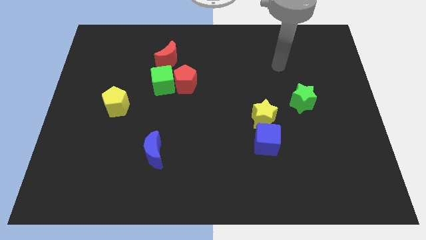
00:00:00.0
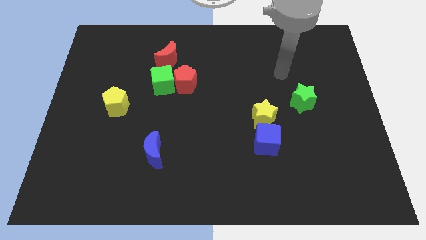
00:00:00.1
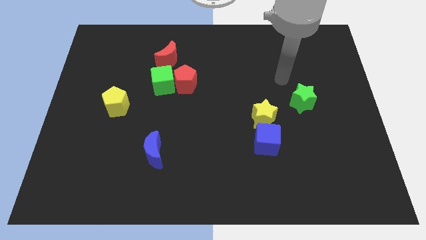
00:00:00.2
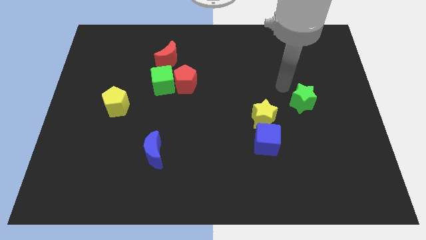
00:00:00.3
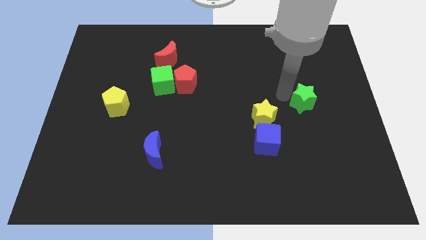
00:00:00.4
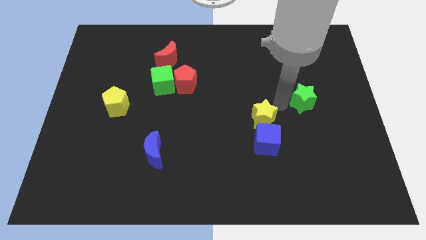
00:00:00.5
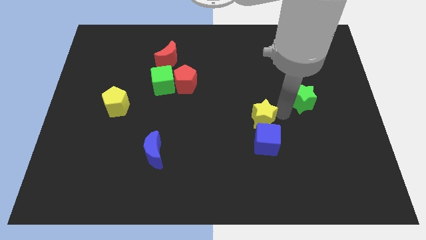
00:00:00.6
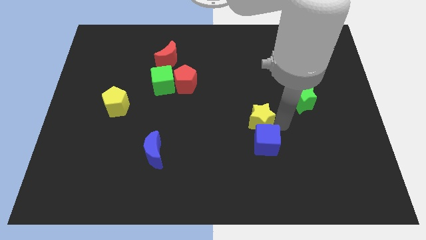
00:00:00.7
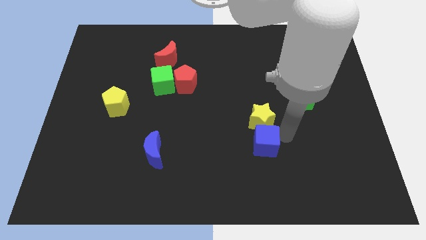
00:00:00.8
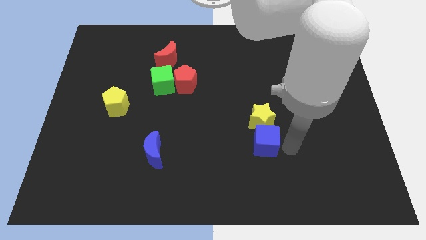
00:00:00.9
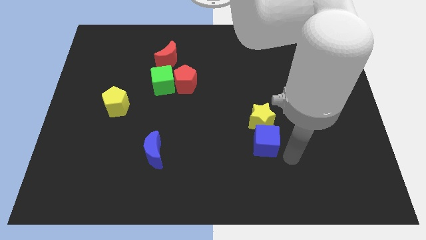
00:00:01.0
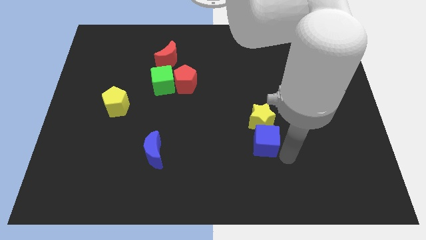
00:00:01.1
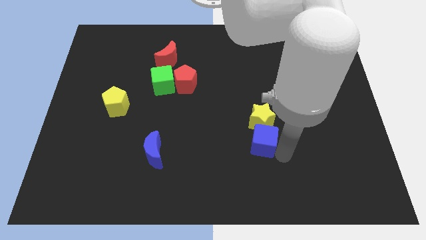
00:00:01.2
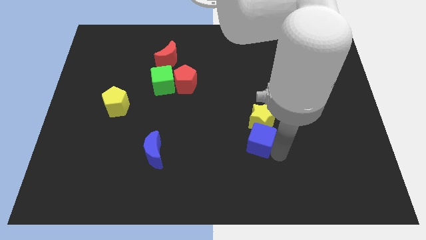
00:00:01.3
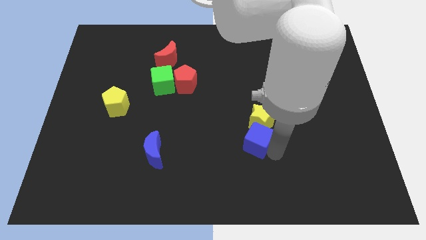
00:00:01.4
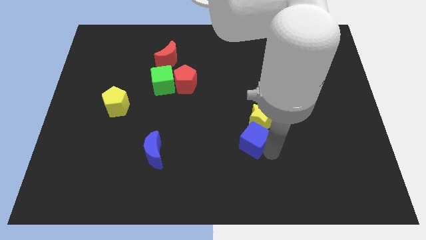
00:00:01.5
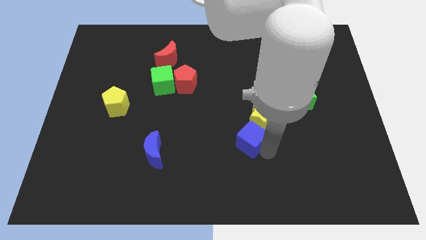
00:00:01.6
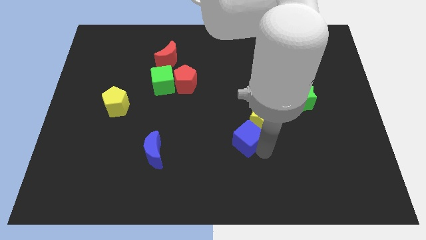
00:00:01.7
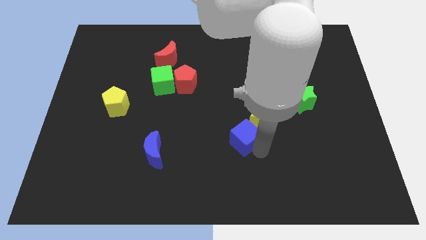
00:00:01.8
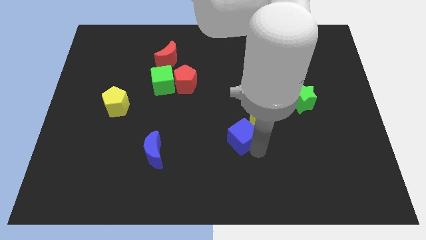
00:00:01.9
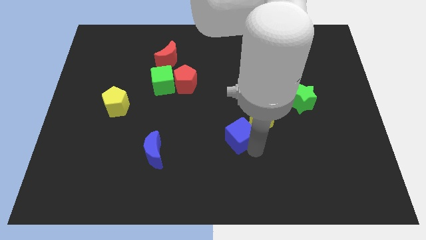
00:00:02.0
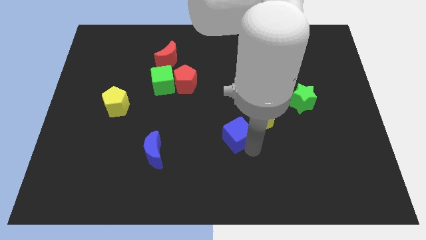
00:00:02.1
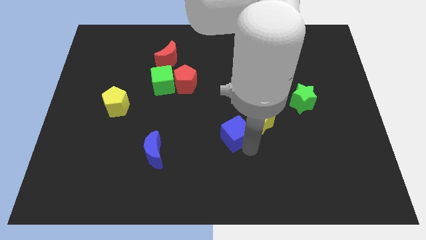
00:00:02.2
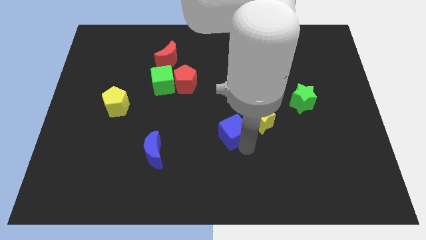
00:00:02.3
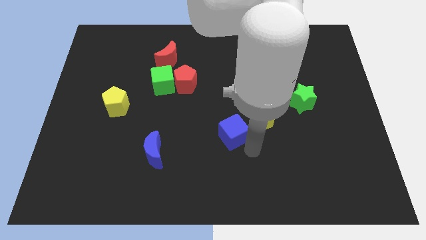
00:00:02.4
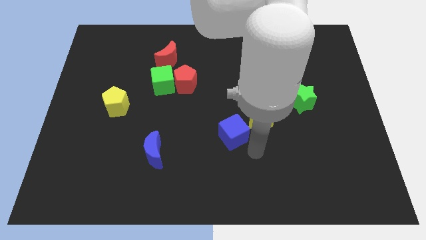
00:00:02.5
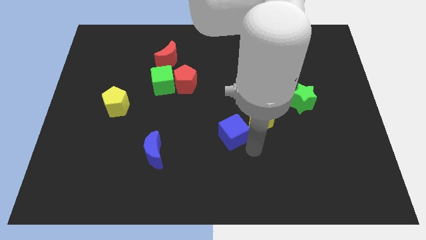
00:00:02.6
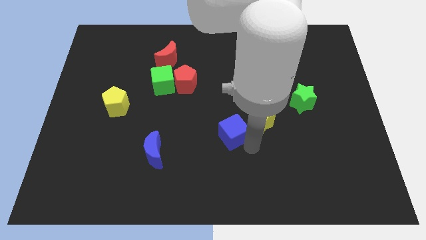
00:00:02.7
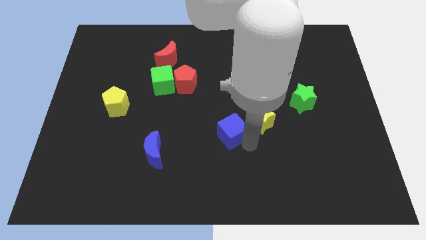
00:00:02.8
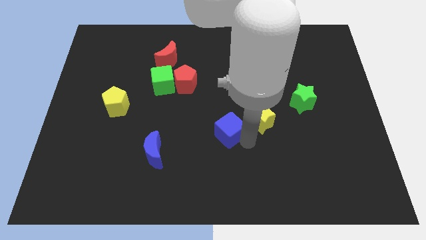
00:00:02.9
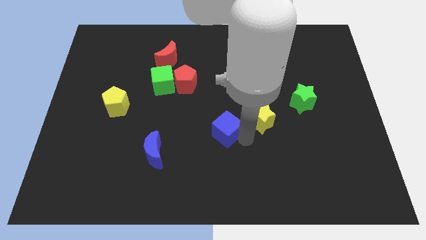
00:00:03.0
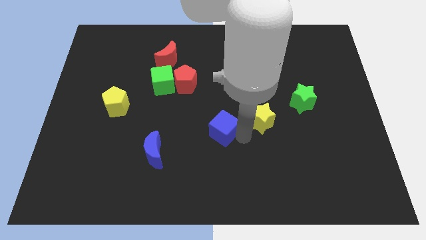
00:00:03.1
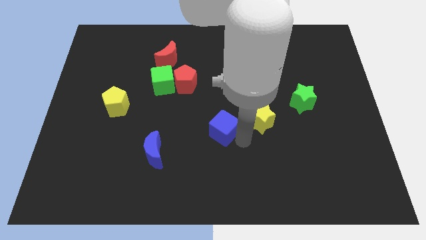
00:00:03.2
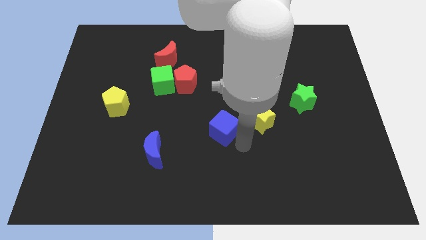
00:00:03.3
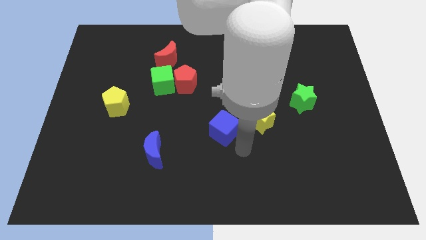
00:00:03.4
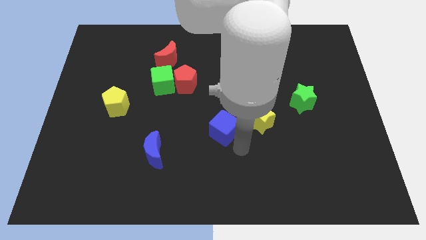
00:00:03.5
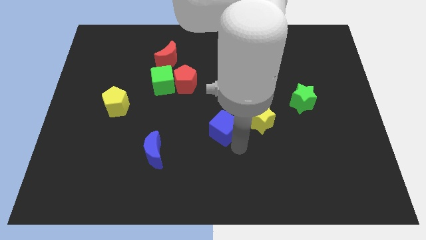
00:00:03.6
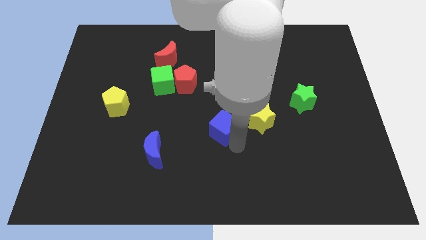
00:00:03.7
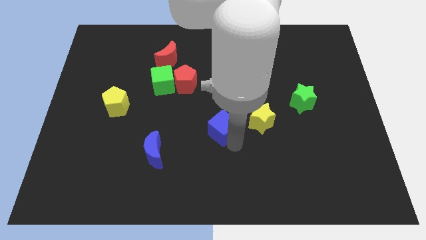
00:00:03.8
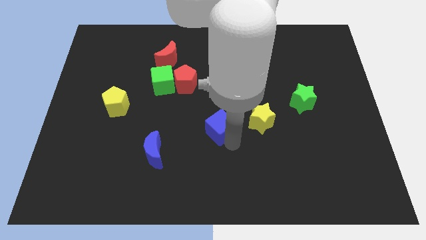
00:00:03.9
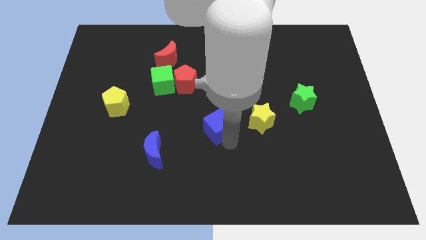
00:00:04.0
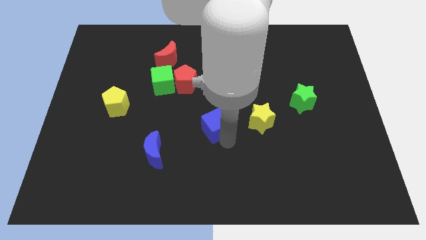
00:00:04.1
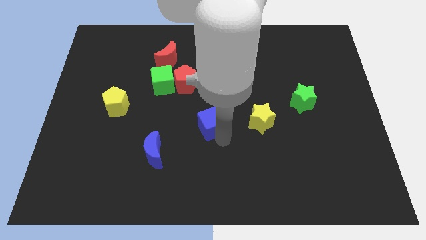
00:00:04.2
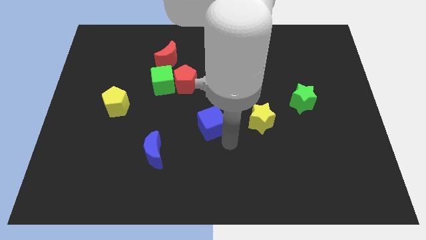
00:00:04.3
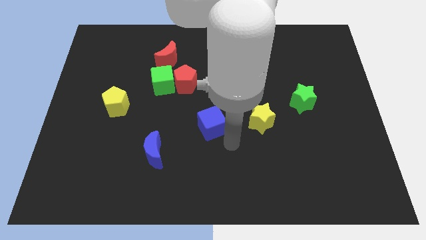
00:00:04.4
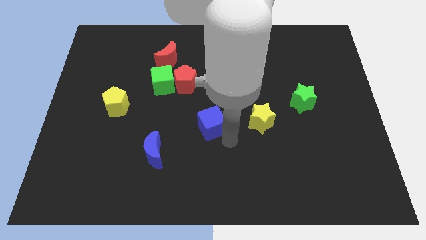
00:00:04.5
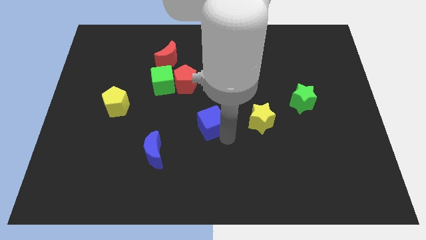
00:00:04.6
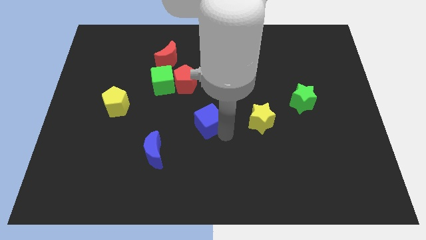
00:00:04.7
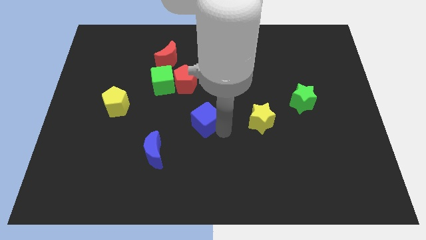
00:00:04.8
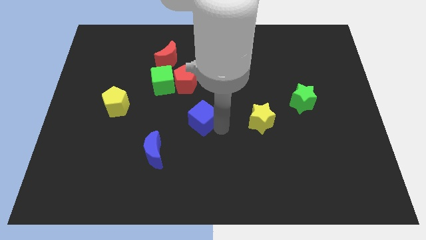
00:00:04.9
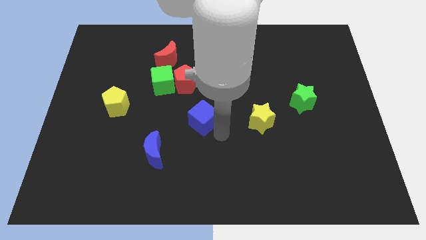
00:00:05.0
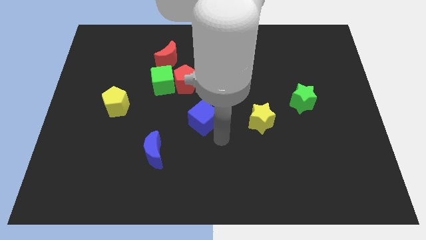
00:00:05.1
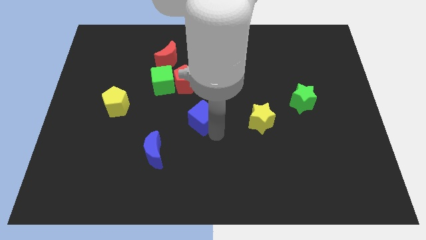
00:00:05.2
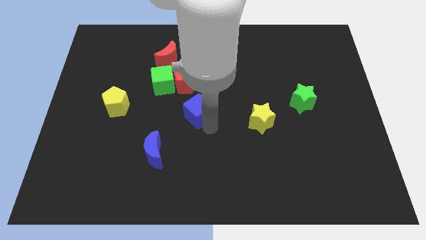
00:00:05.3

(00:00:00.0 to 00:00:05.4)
push the blue cube to the bottom right of the green cube

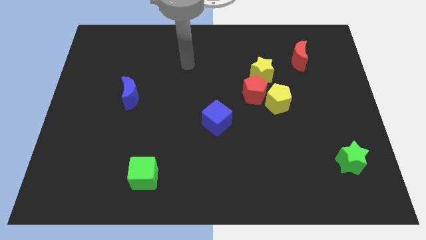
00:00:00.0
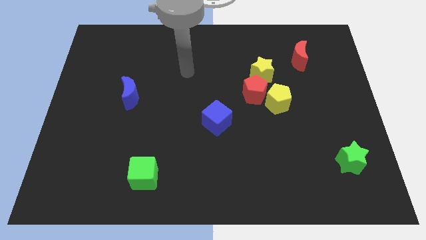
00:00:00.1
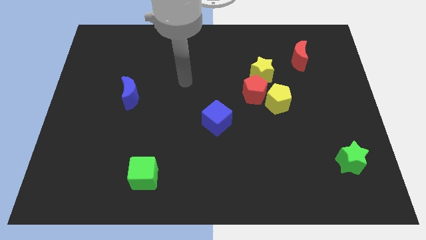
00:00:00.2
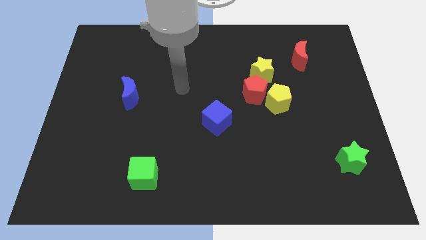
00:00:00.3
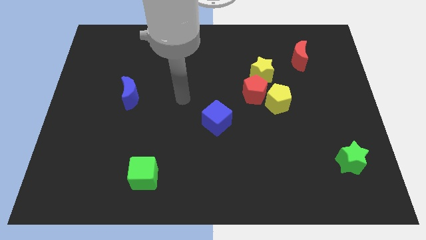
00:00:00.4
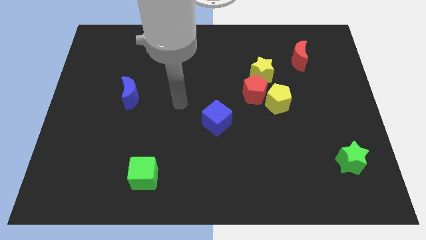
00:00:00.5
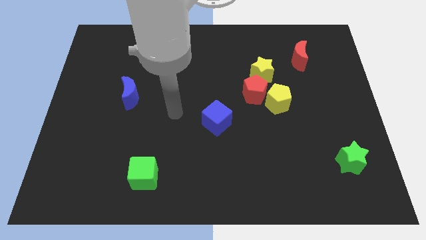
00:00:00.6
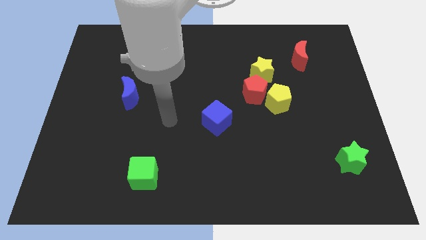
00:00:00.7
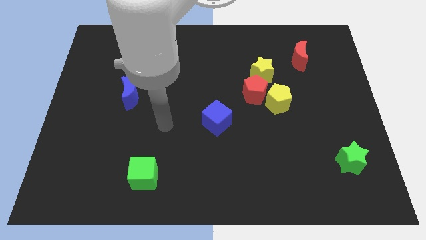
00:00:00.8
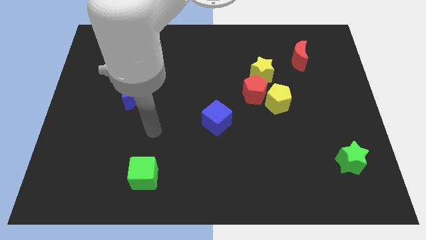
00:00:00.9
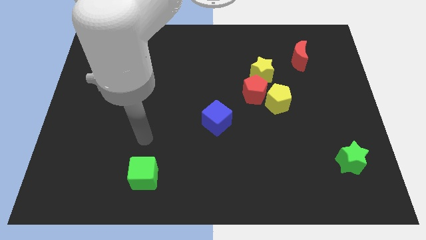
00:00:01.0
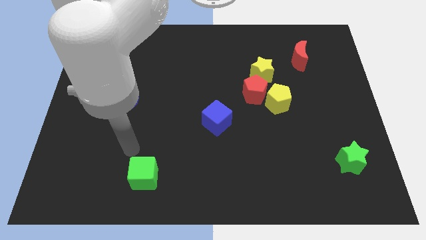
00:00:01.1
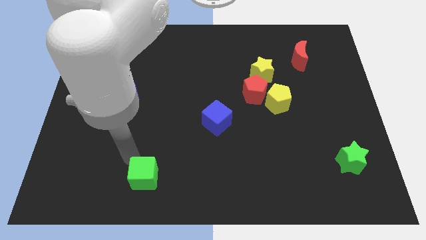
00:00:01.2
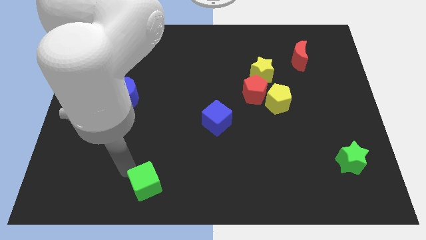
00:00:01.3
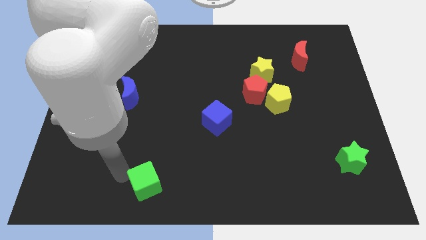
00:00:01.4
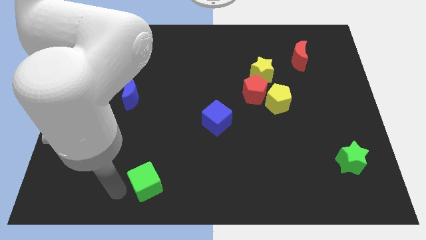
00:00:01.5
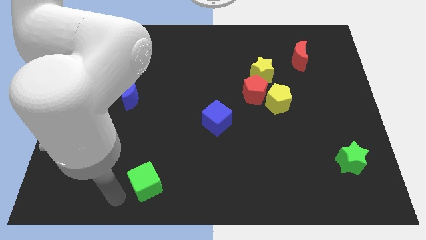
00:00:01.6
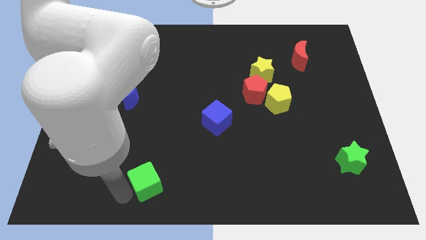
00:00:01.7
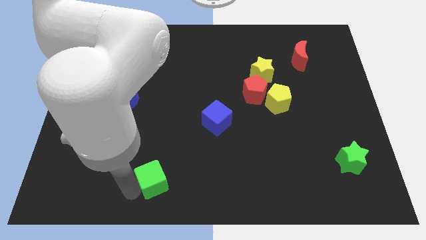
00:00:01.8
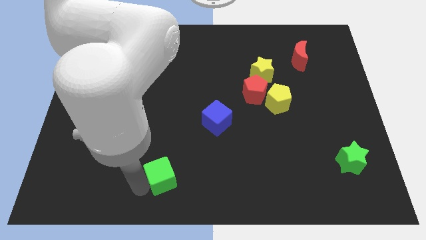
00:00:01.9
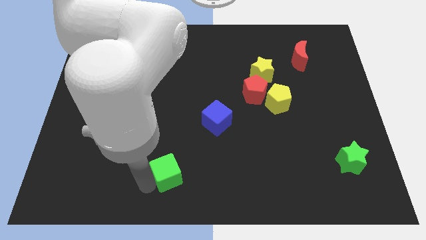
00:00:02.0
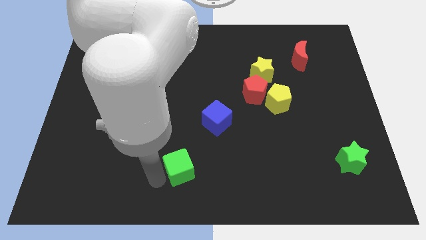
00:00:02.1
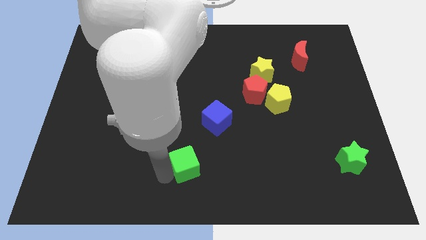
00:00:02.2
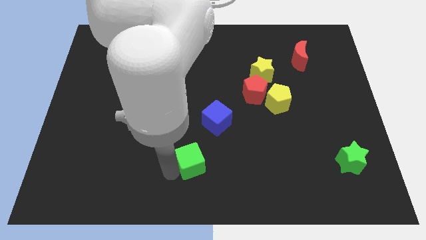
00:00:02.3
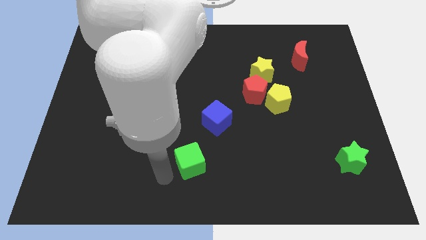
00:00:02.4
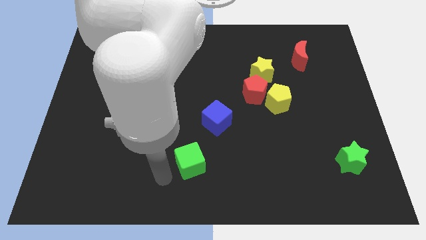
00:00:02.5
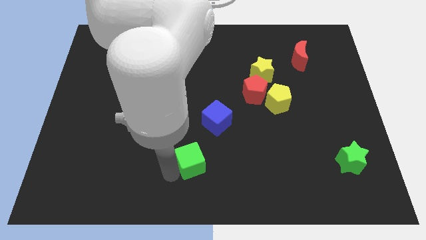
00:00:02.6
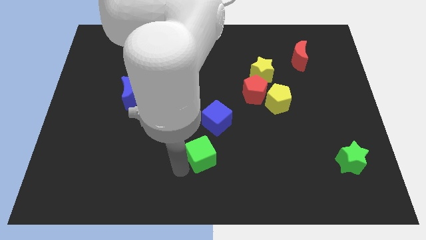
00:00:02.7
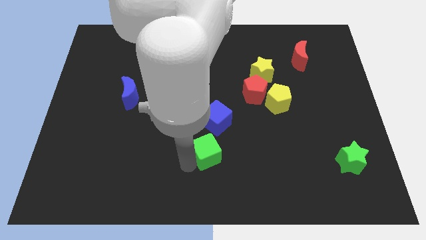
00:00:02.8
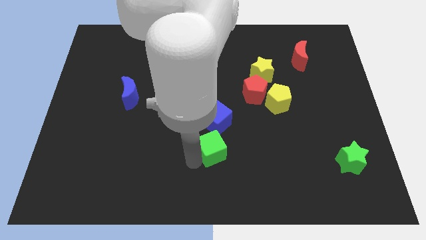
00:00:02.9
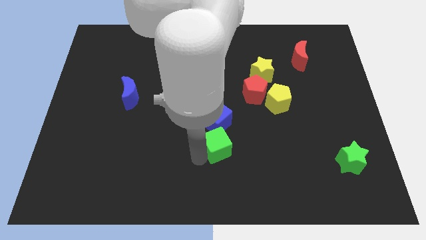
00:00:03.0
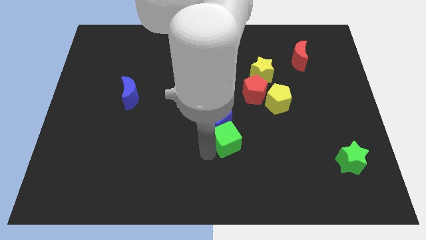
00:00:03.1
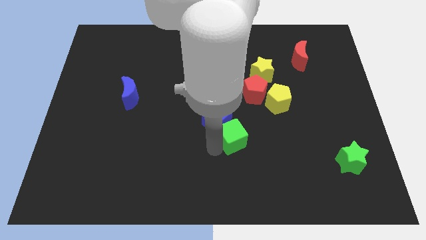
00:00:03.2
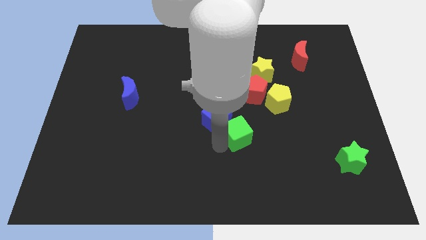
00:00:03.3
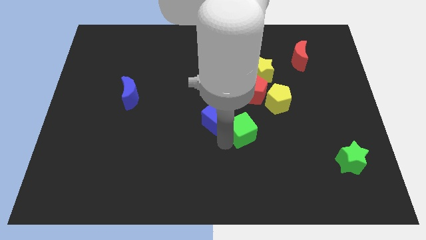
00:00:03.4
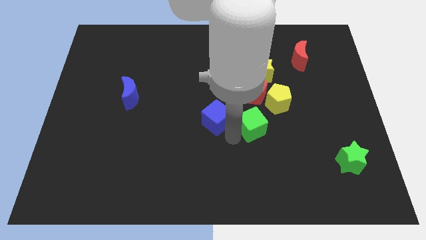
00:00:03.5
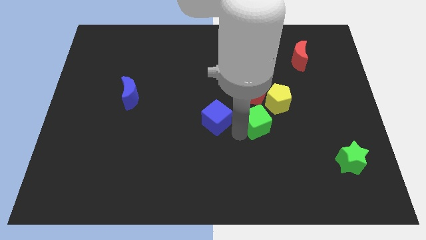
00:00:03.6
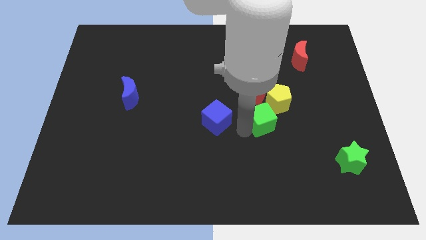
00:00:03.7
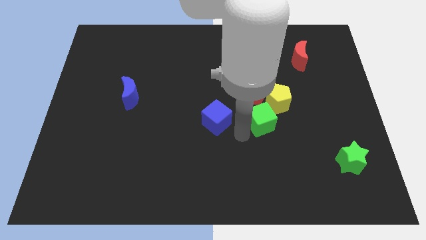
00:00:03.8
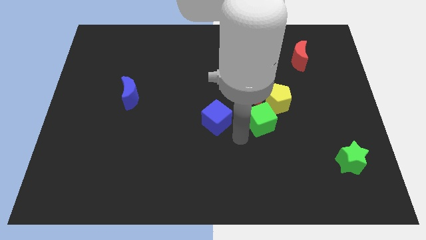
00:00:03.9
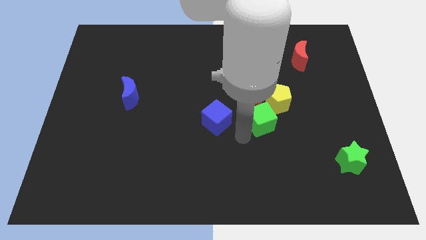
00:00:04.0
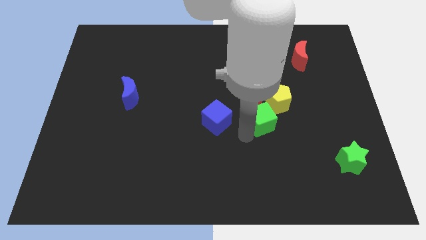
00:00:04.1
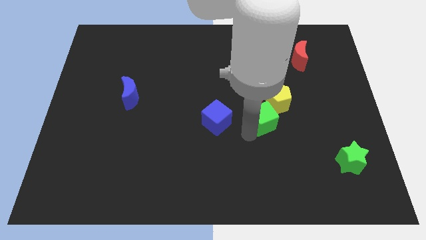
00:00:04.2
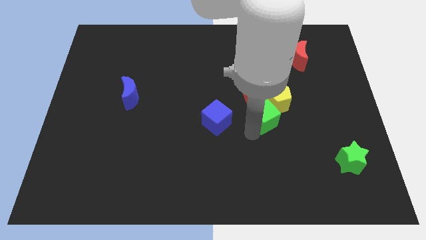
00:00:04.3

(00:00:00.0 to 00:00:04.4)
push the green cube to the bottom right side of the red pentagon
